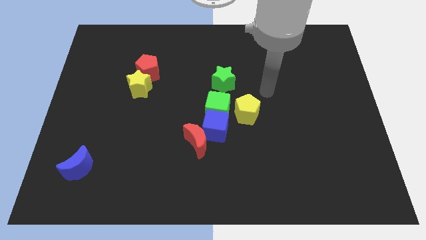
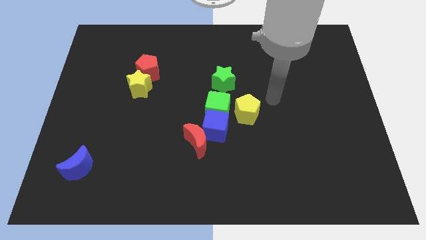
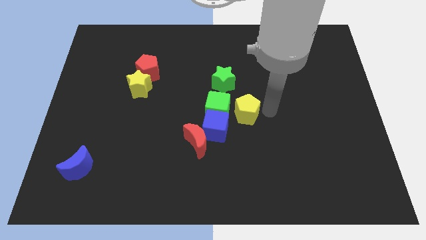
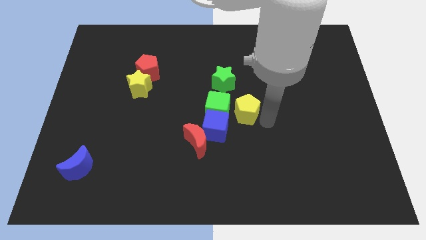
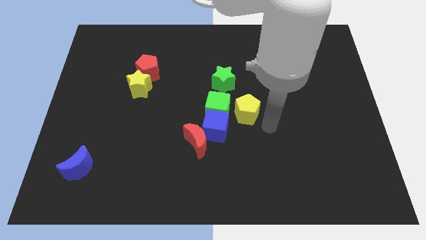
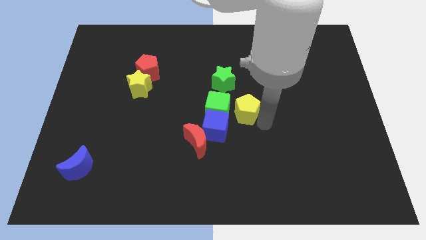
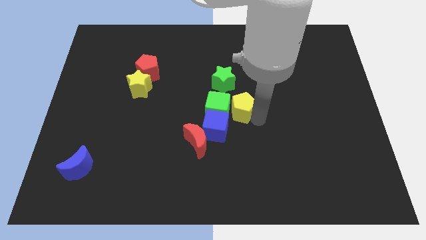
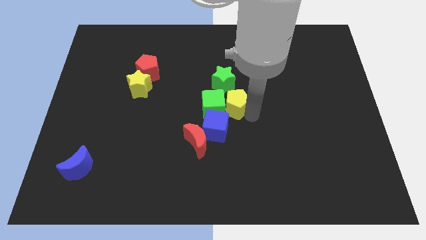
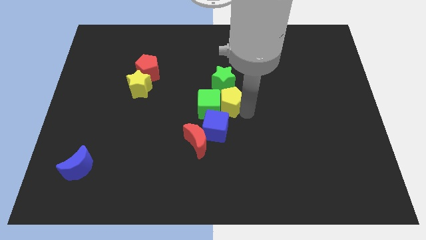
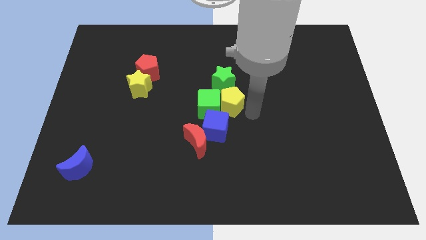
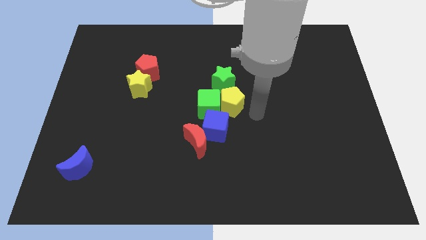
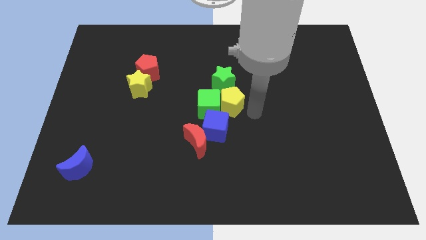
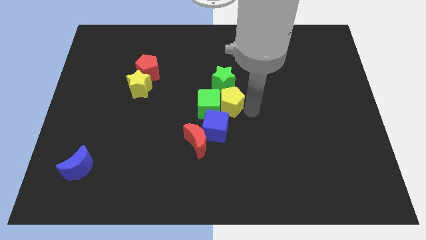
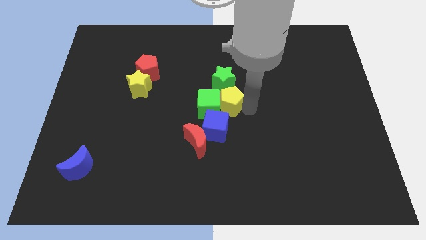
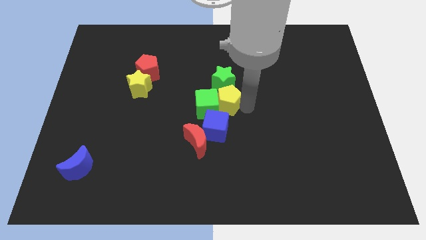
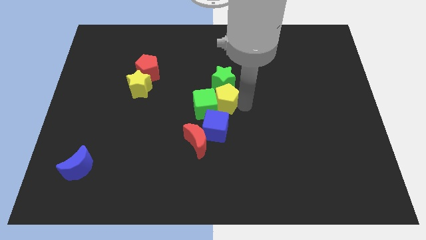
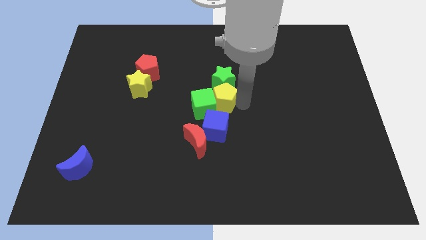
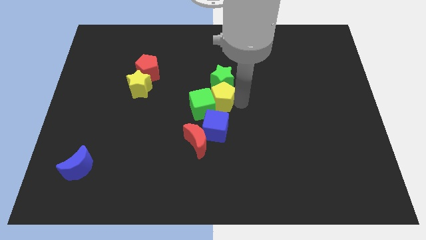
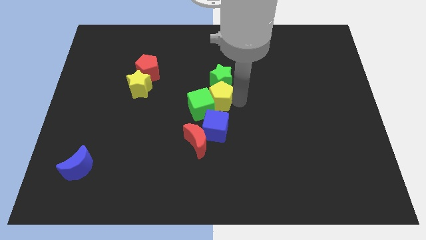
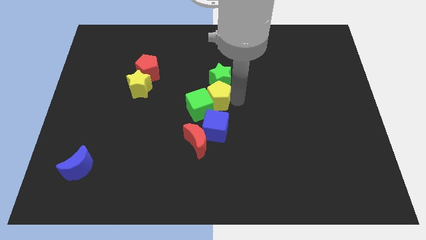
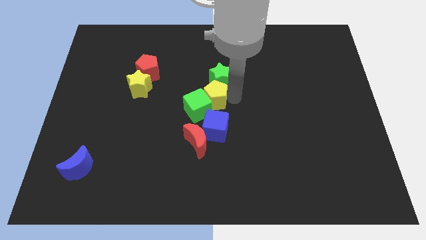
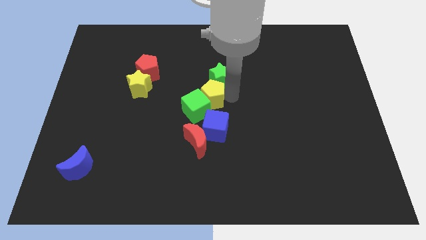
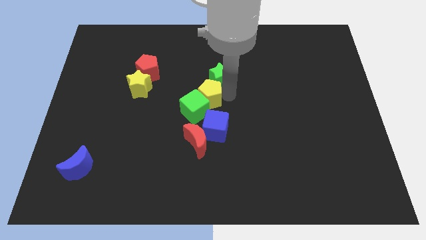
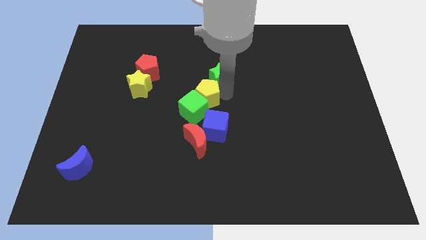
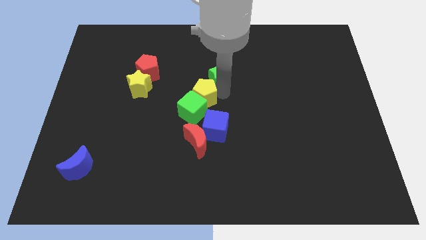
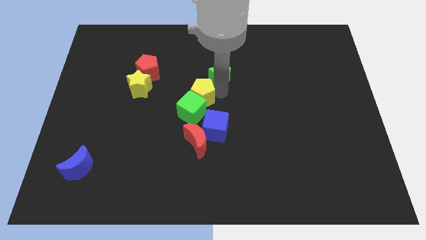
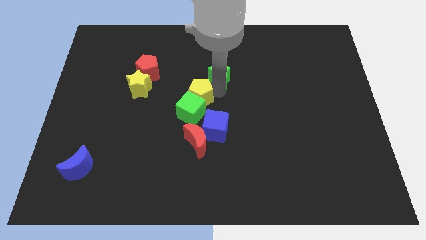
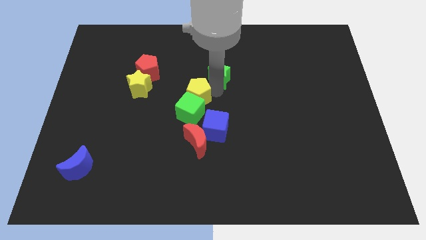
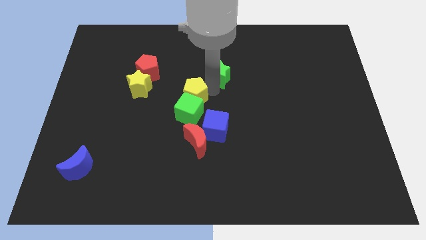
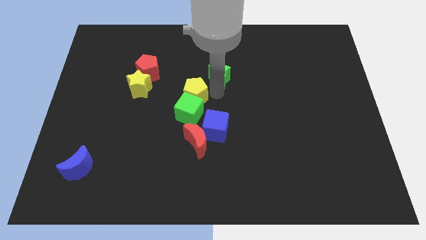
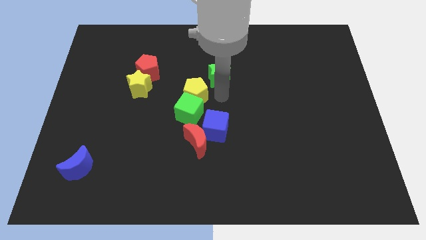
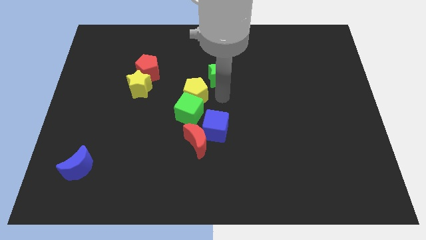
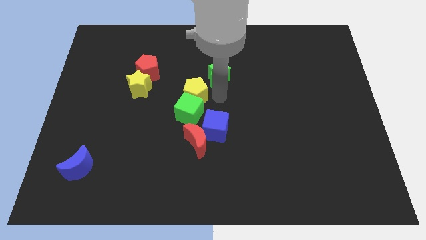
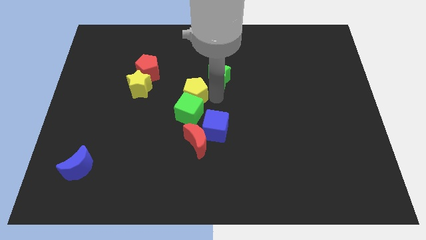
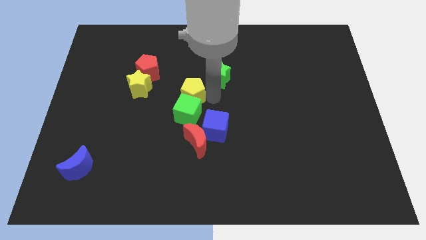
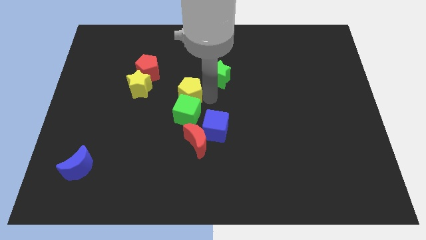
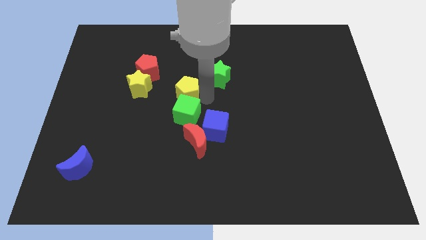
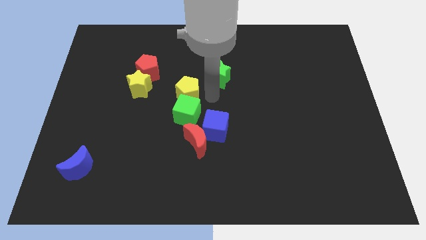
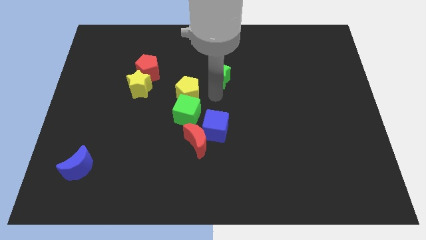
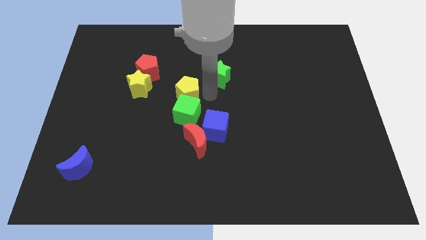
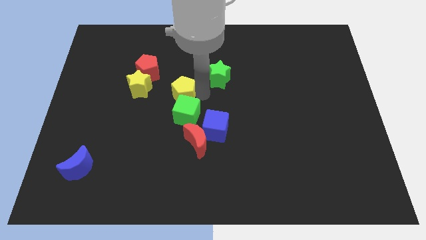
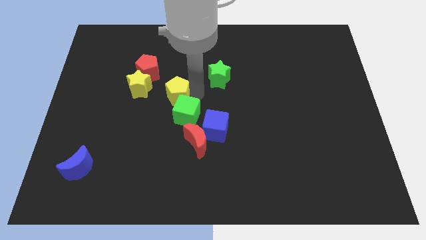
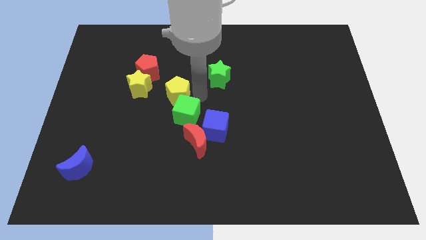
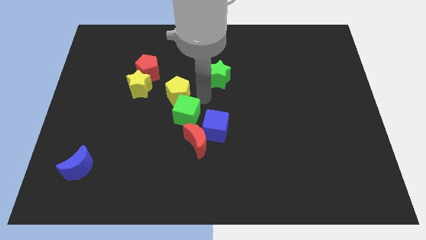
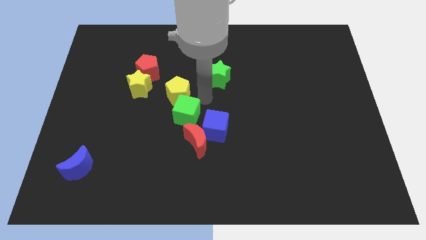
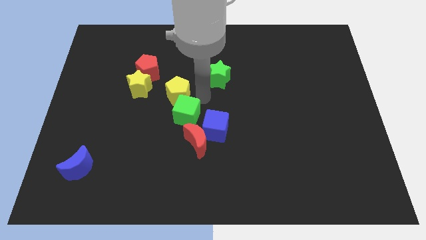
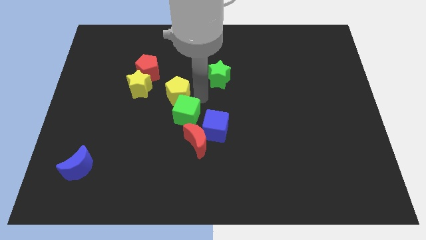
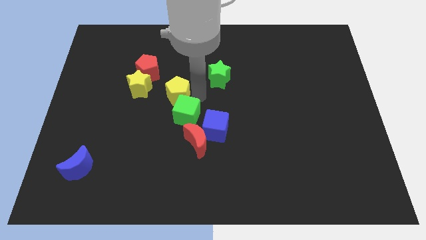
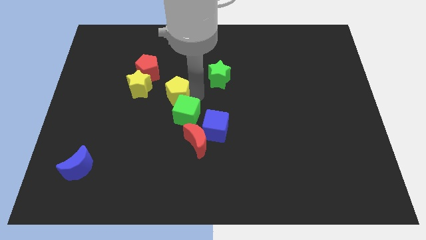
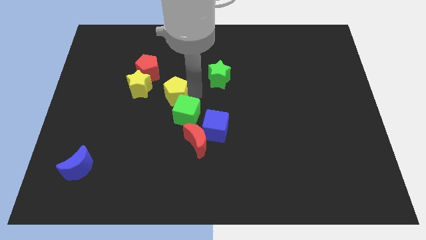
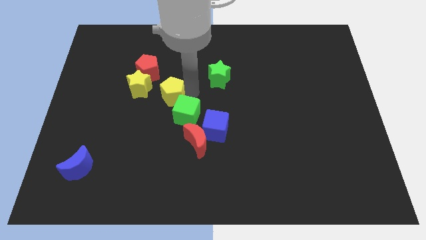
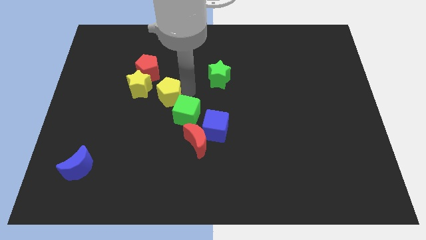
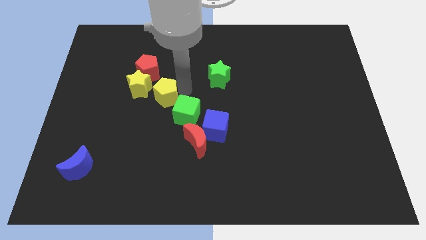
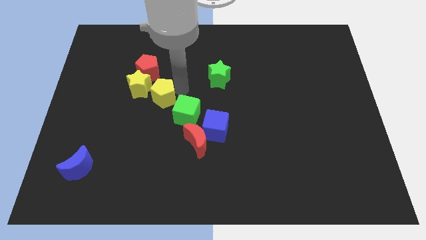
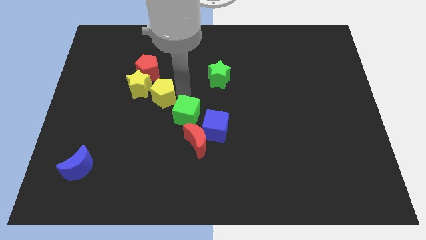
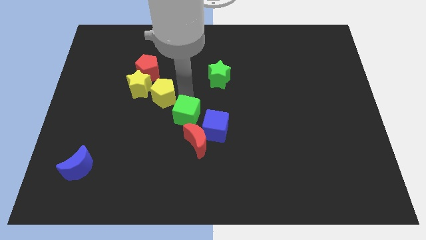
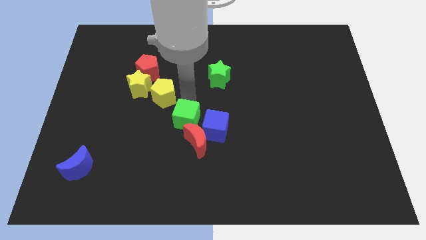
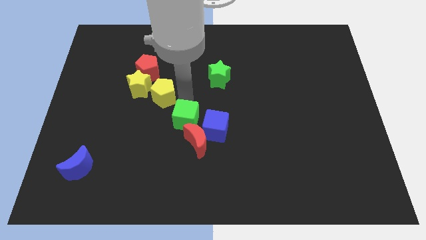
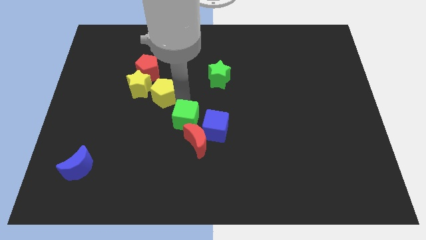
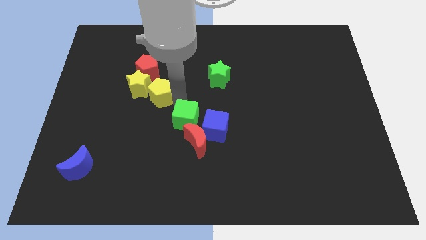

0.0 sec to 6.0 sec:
move the yellow pentagon to the yellow star
